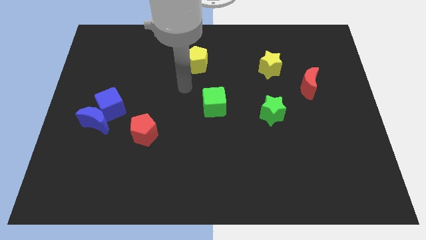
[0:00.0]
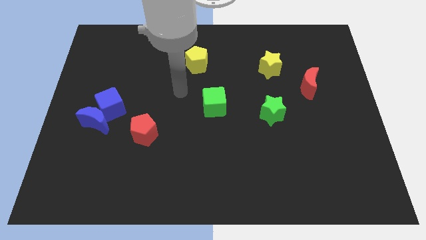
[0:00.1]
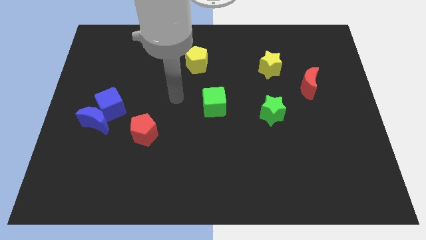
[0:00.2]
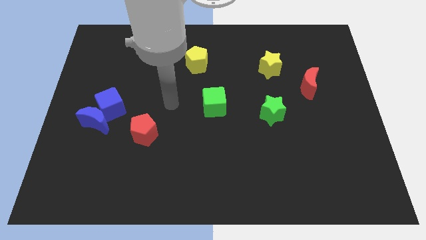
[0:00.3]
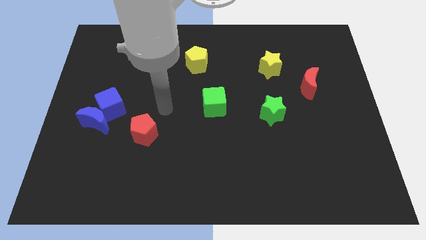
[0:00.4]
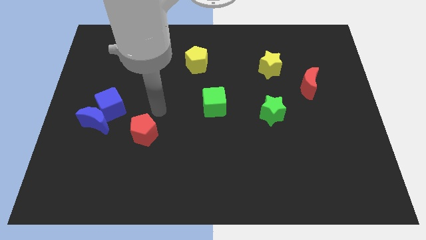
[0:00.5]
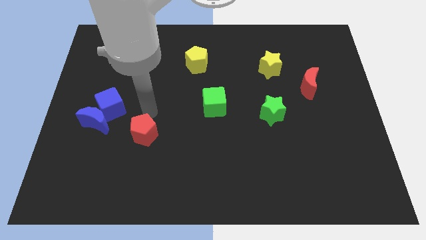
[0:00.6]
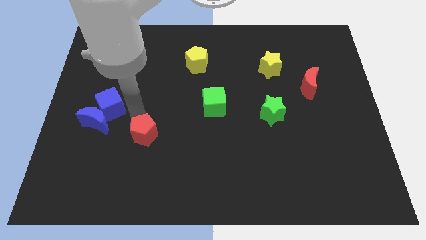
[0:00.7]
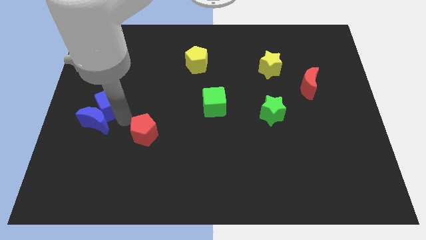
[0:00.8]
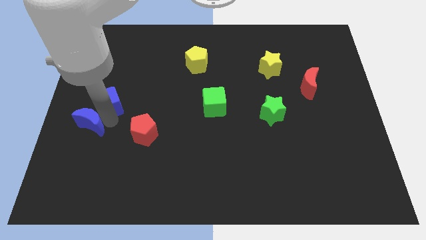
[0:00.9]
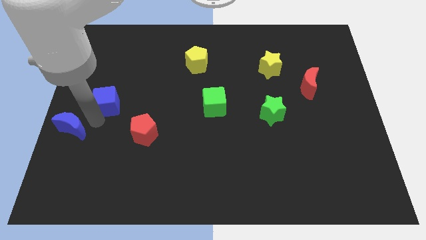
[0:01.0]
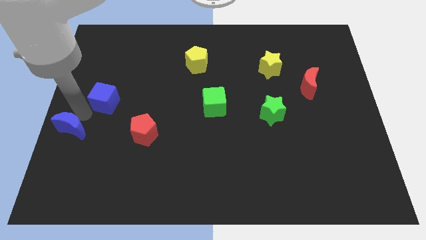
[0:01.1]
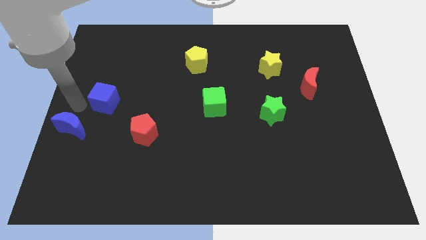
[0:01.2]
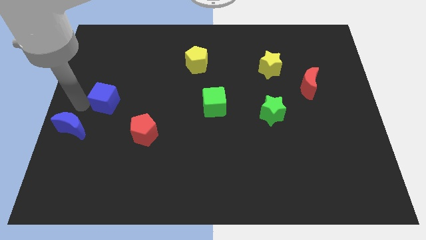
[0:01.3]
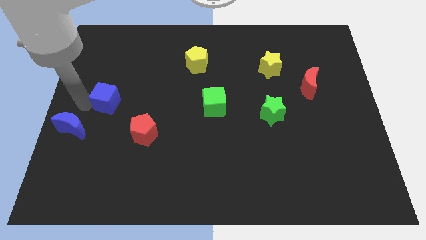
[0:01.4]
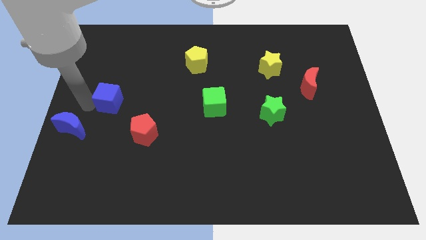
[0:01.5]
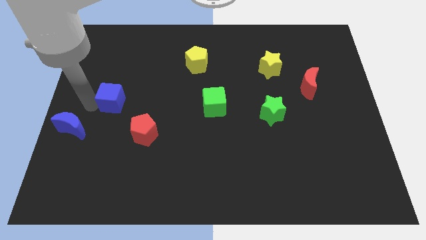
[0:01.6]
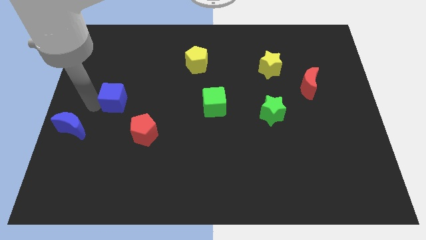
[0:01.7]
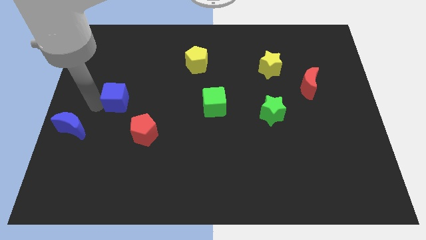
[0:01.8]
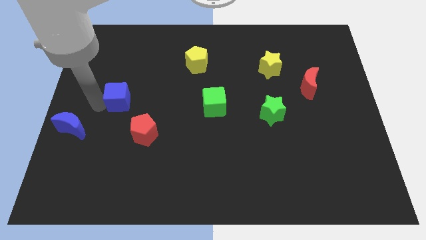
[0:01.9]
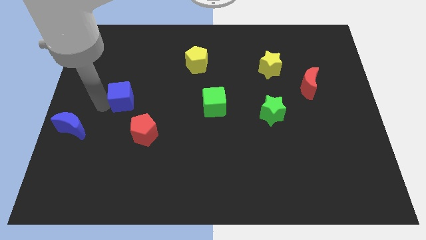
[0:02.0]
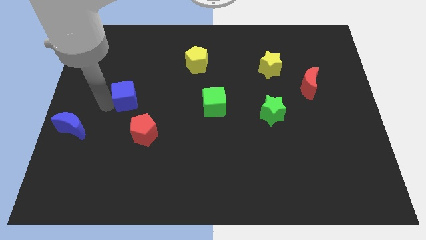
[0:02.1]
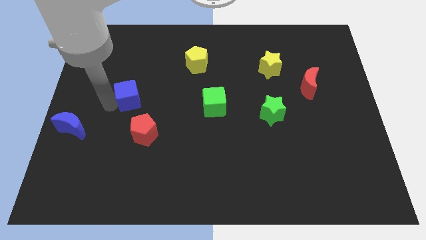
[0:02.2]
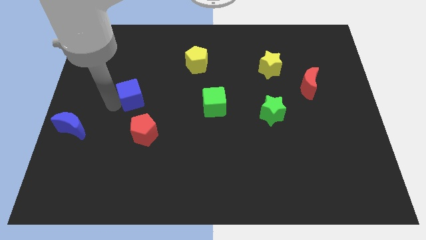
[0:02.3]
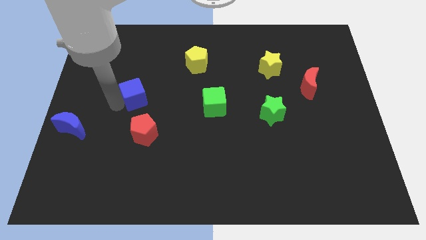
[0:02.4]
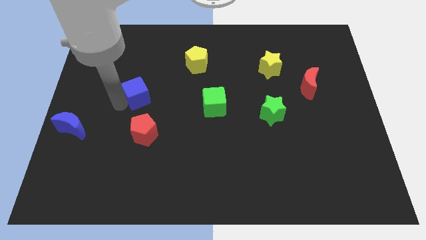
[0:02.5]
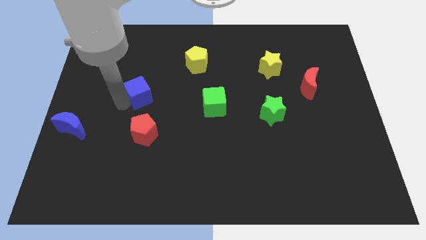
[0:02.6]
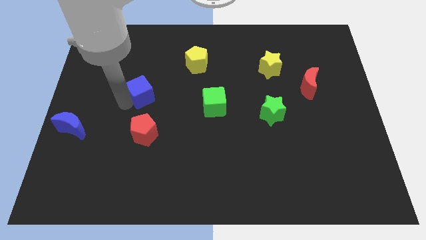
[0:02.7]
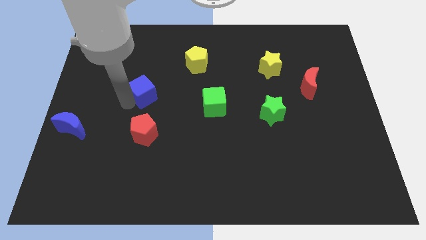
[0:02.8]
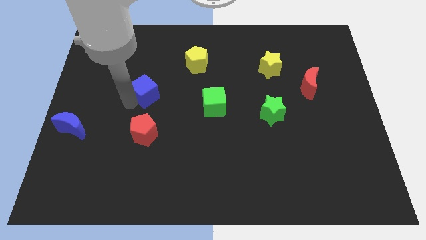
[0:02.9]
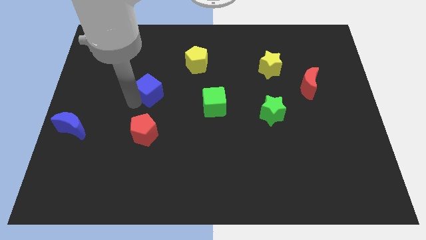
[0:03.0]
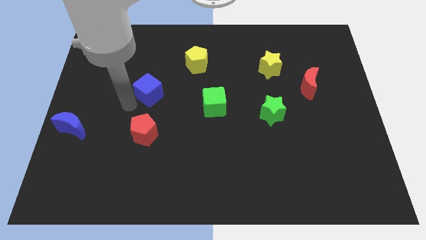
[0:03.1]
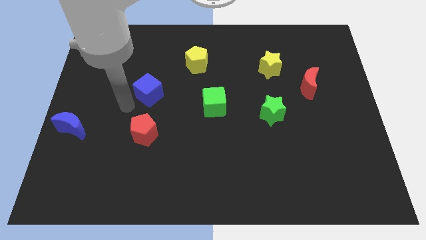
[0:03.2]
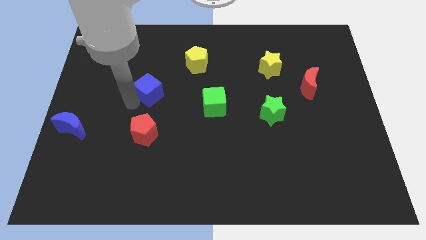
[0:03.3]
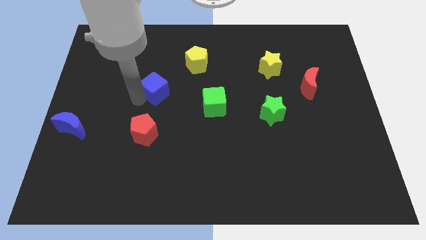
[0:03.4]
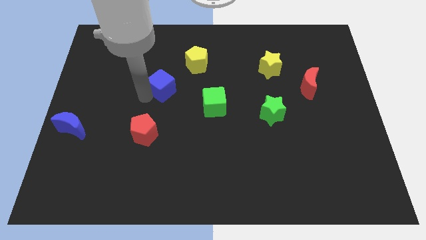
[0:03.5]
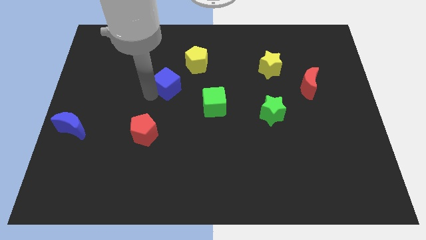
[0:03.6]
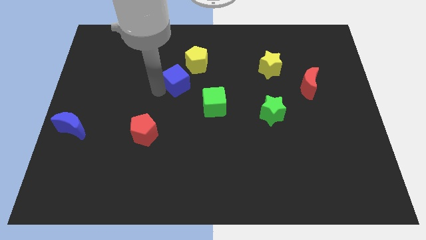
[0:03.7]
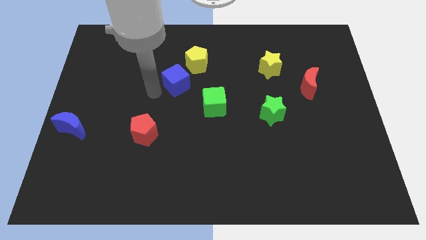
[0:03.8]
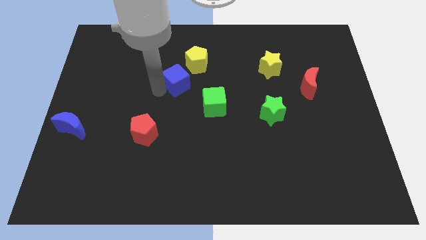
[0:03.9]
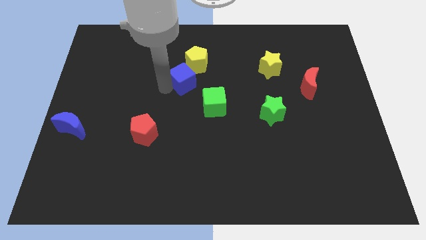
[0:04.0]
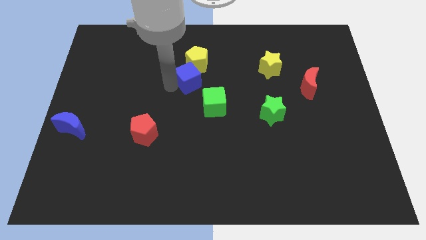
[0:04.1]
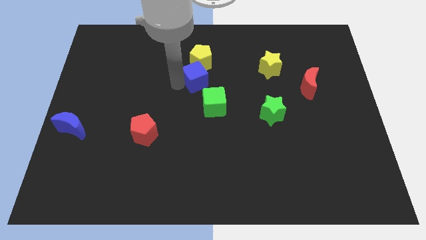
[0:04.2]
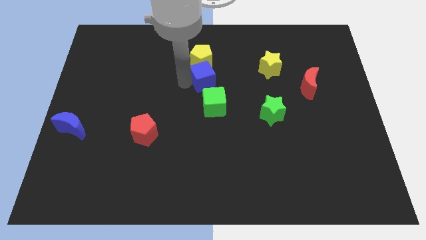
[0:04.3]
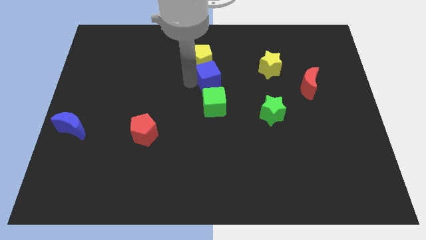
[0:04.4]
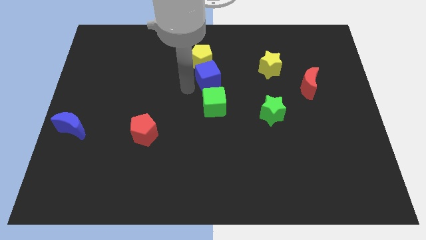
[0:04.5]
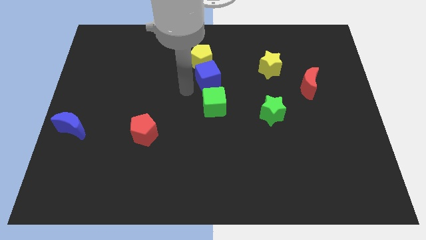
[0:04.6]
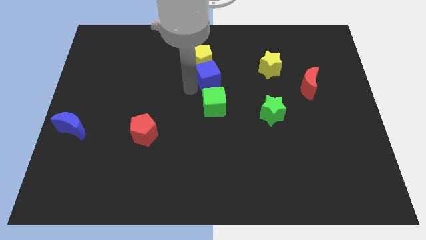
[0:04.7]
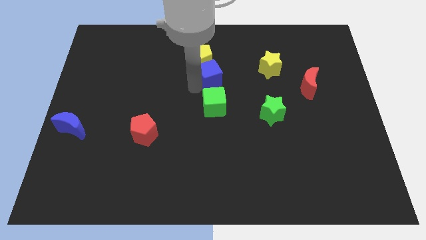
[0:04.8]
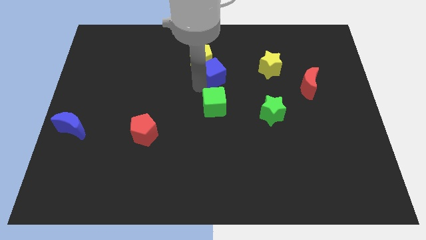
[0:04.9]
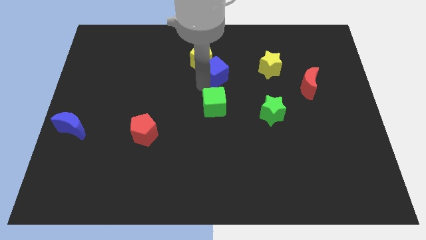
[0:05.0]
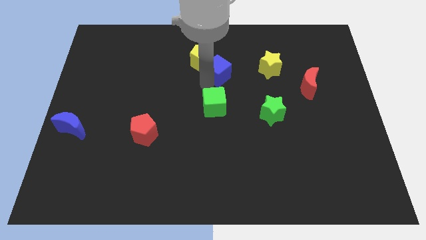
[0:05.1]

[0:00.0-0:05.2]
put the blue cube to the right of the yellow pentagon

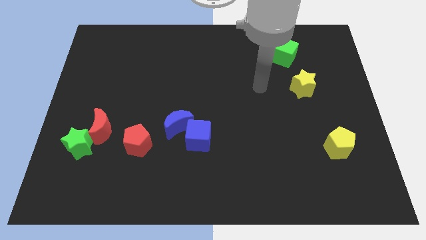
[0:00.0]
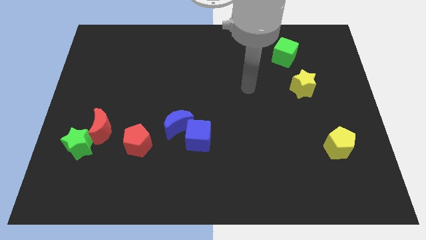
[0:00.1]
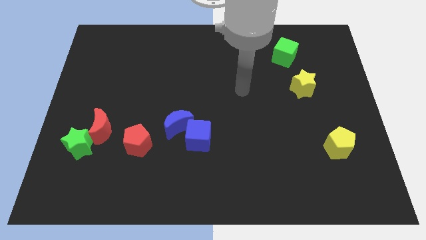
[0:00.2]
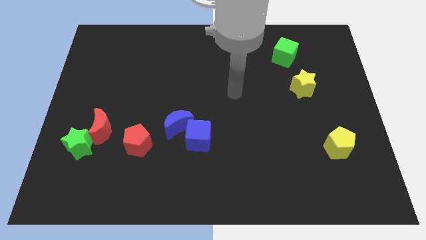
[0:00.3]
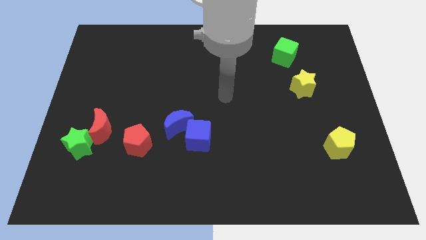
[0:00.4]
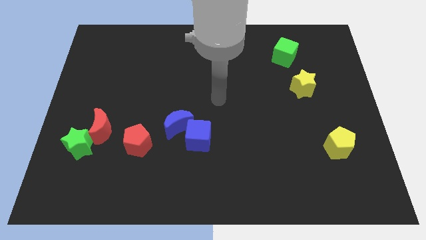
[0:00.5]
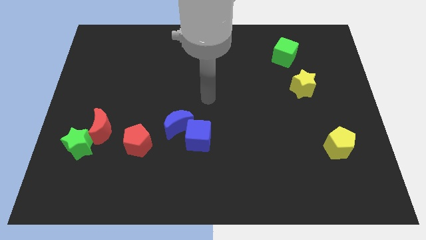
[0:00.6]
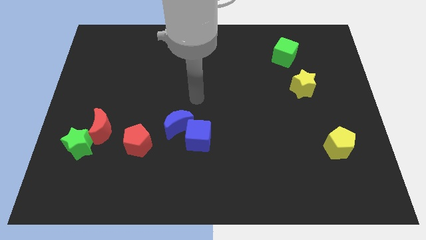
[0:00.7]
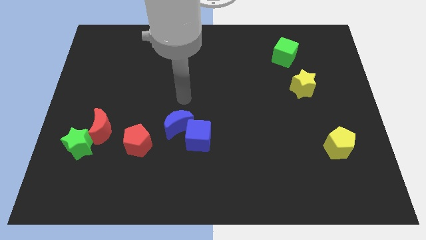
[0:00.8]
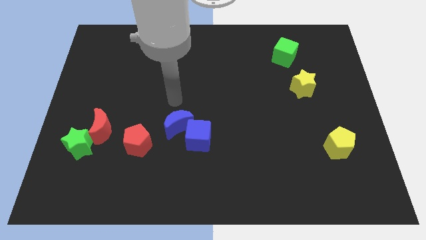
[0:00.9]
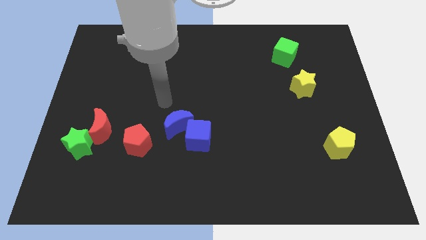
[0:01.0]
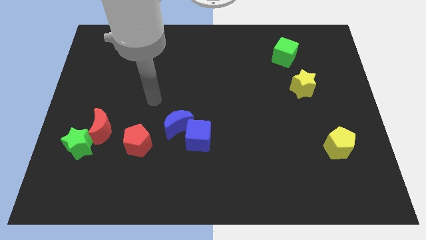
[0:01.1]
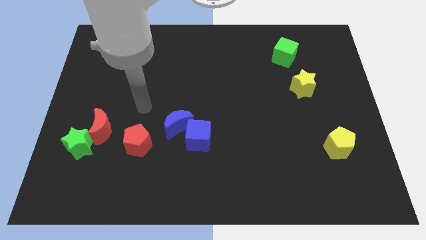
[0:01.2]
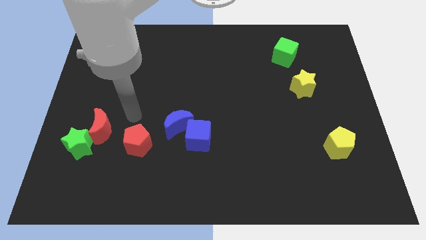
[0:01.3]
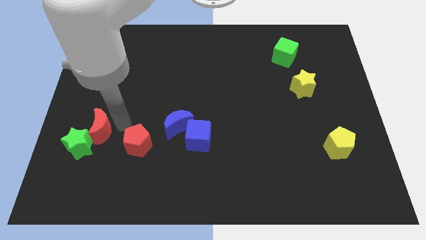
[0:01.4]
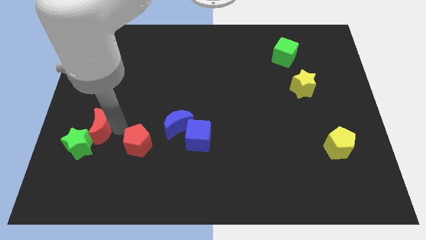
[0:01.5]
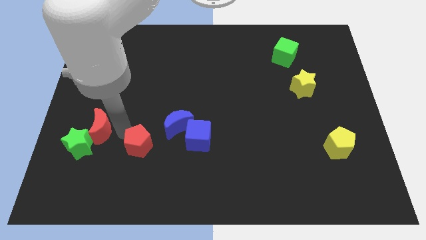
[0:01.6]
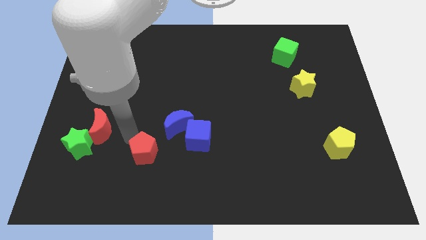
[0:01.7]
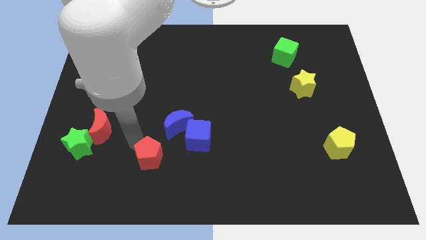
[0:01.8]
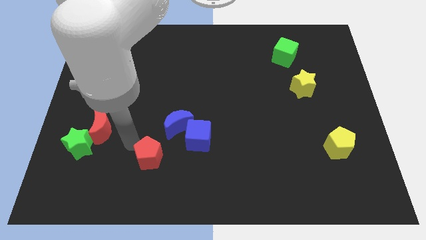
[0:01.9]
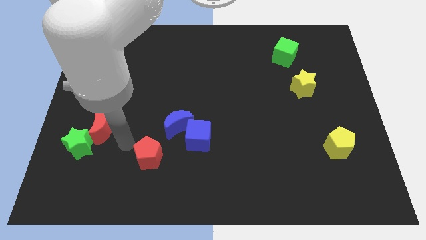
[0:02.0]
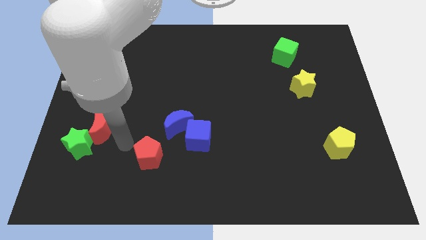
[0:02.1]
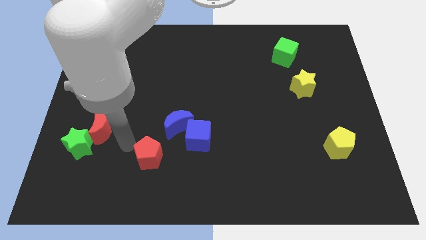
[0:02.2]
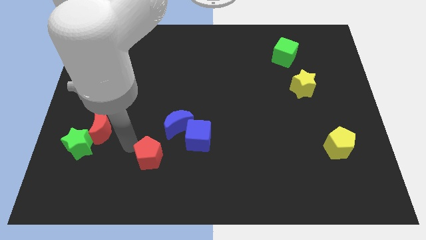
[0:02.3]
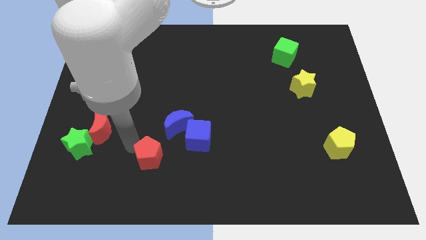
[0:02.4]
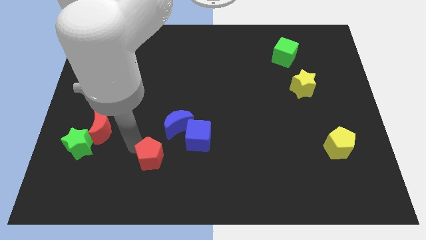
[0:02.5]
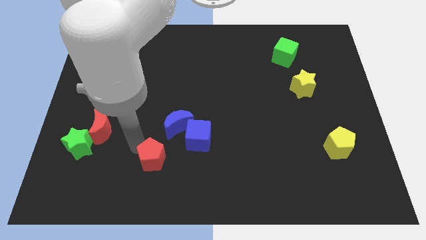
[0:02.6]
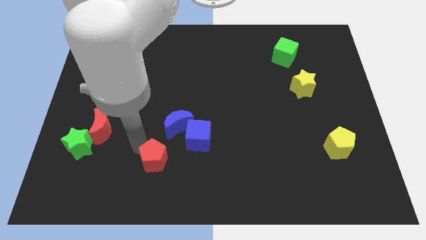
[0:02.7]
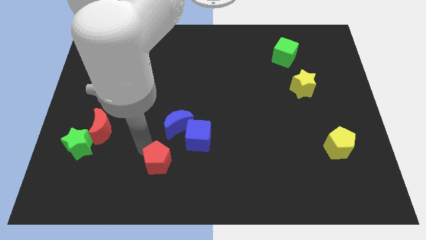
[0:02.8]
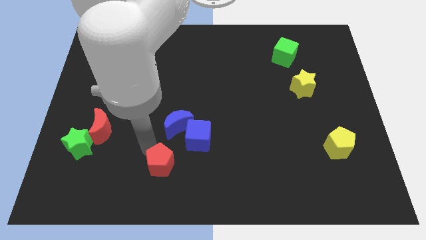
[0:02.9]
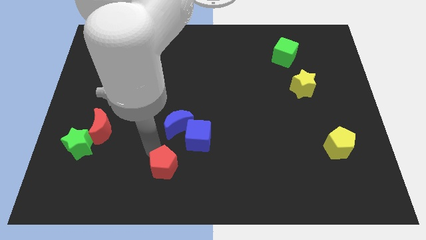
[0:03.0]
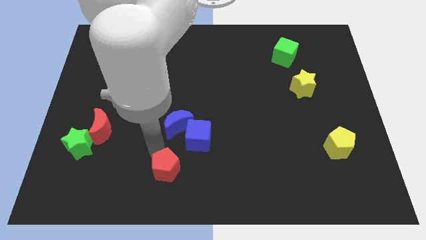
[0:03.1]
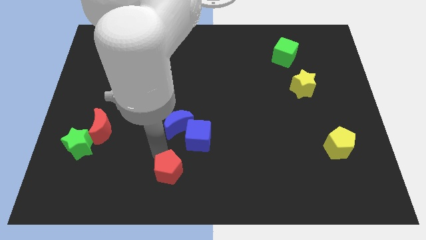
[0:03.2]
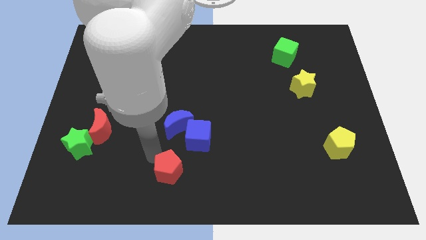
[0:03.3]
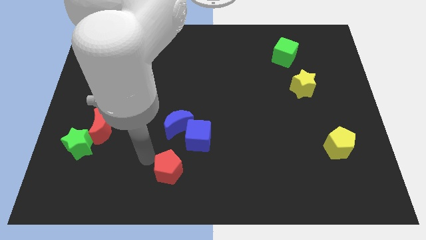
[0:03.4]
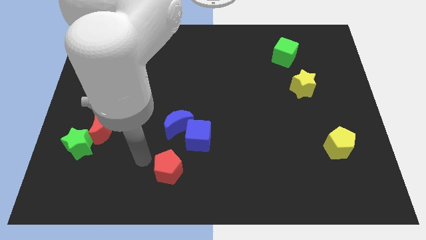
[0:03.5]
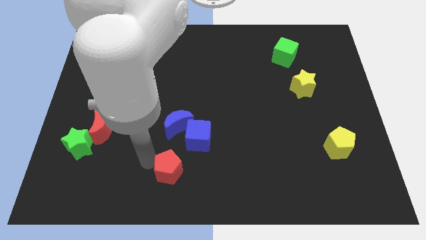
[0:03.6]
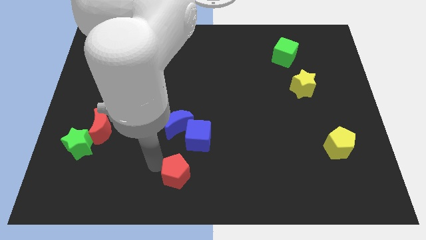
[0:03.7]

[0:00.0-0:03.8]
push the red pentagon to the bottom side of the blue cube
